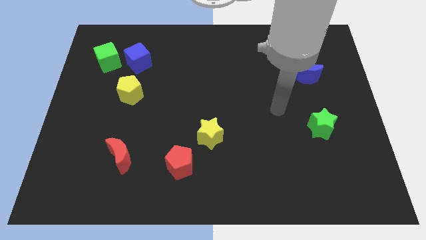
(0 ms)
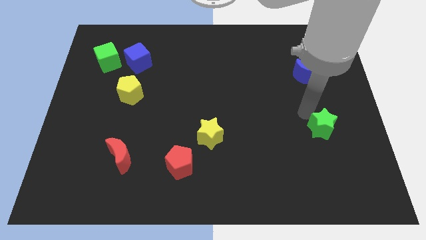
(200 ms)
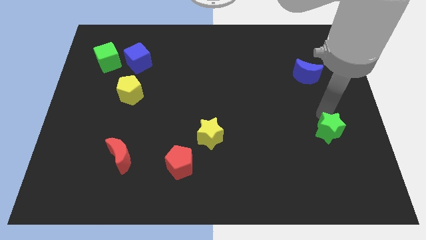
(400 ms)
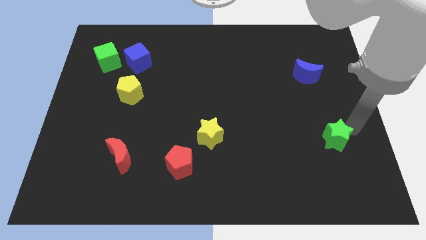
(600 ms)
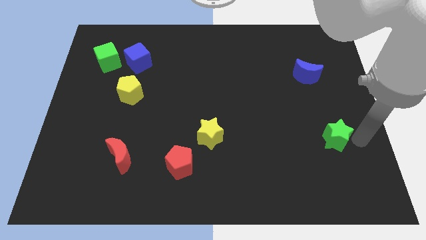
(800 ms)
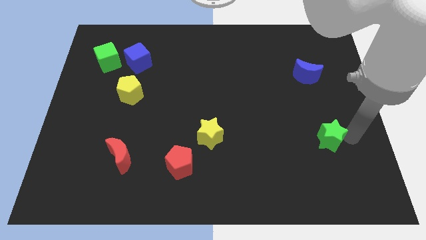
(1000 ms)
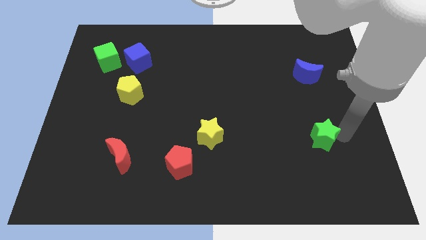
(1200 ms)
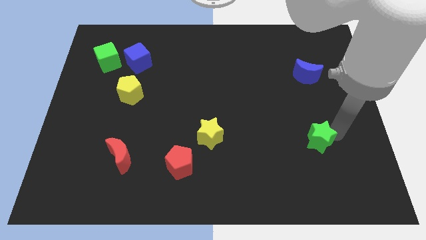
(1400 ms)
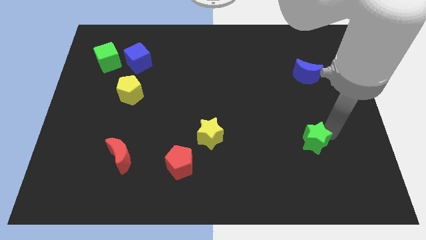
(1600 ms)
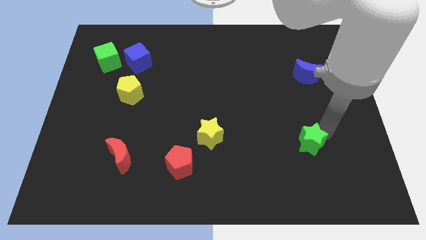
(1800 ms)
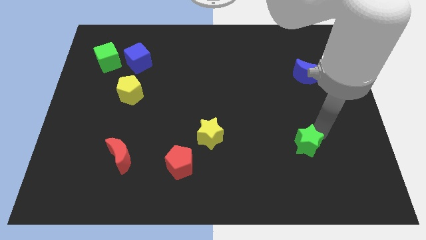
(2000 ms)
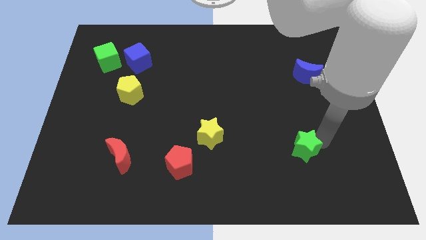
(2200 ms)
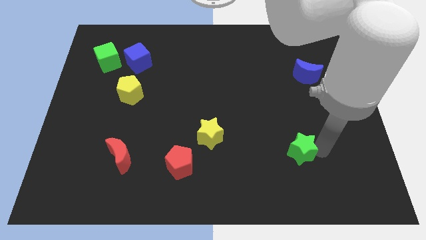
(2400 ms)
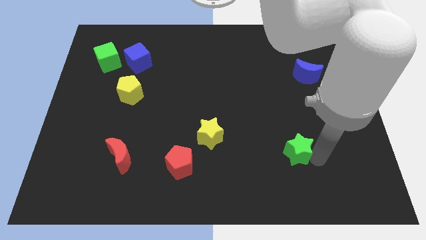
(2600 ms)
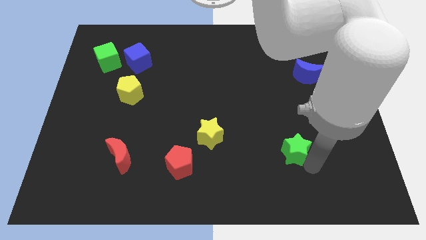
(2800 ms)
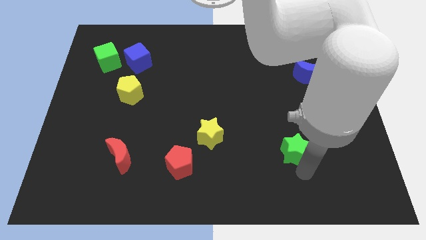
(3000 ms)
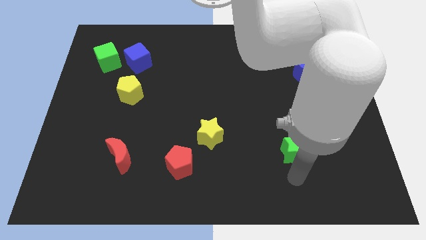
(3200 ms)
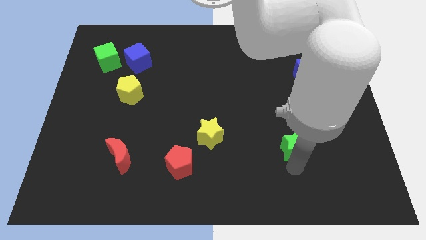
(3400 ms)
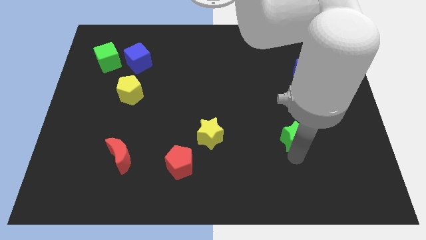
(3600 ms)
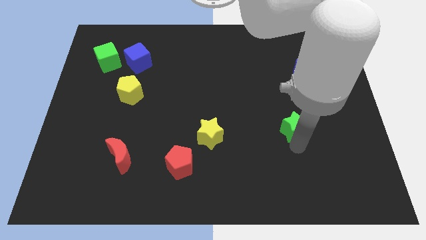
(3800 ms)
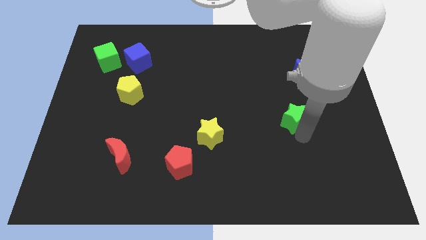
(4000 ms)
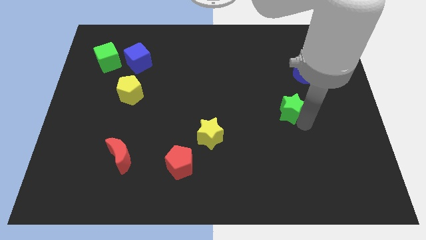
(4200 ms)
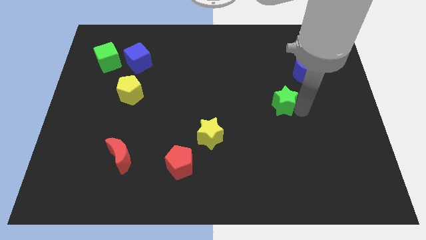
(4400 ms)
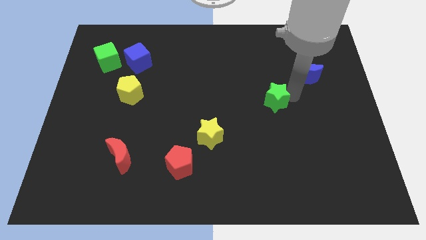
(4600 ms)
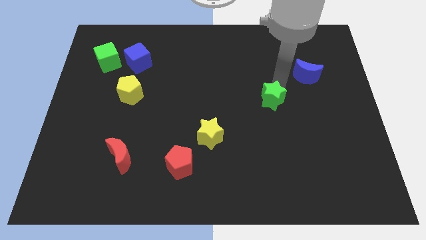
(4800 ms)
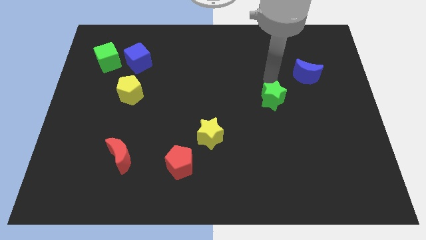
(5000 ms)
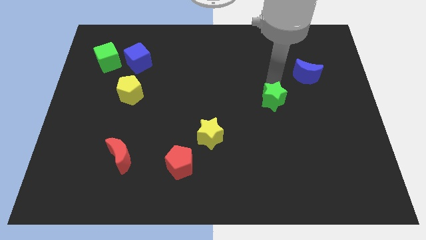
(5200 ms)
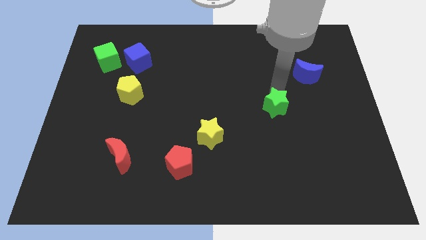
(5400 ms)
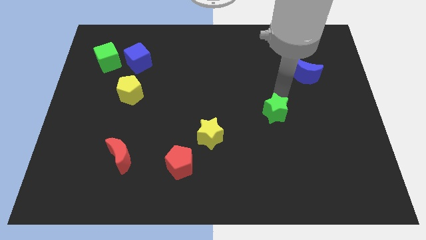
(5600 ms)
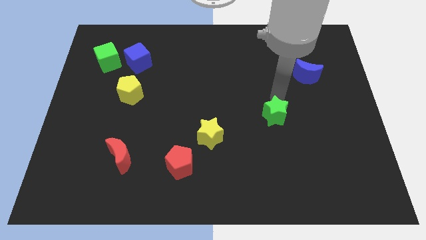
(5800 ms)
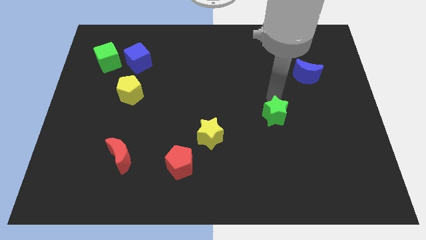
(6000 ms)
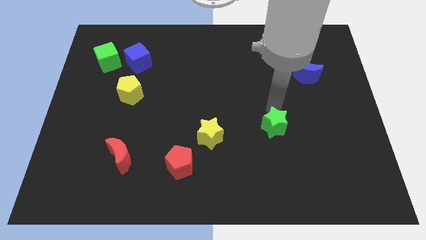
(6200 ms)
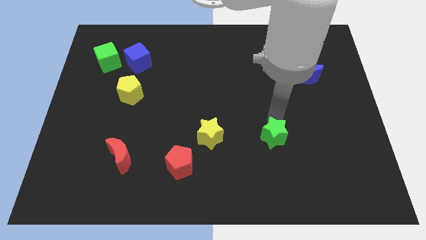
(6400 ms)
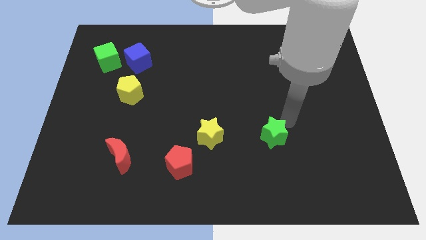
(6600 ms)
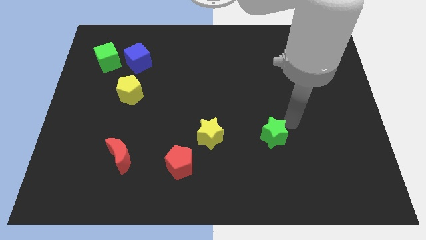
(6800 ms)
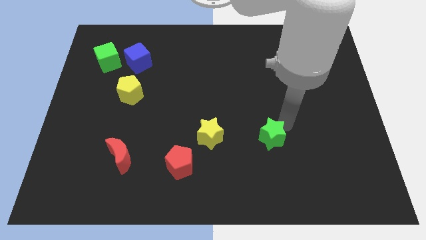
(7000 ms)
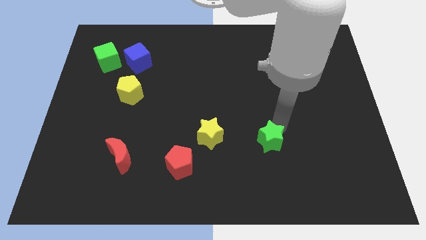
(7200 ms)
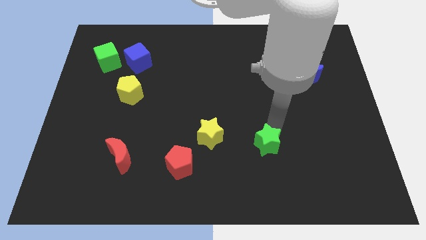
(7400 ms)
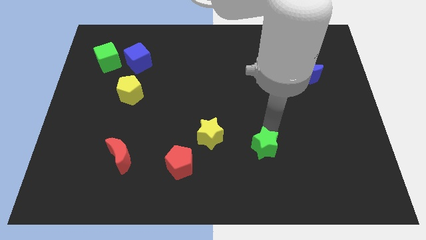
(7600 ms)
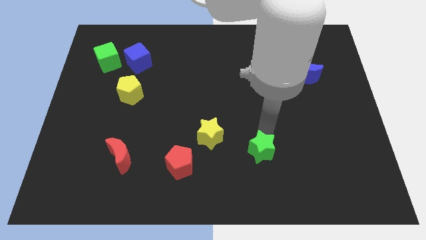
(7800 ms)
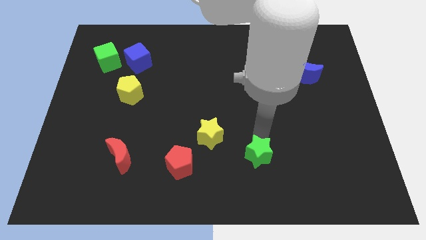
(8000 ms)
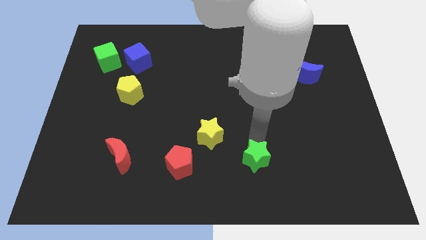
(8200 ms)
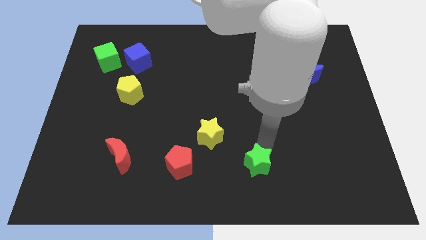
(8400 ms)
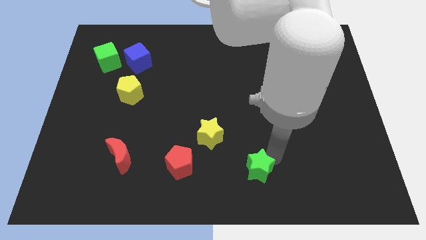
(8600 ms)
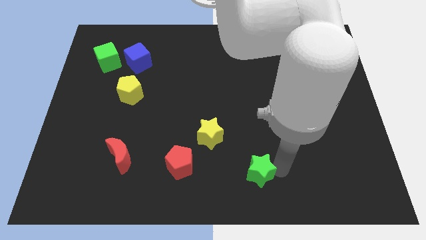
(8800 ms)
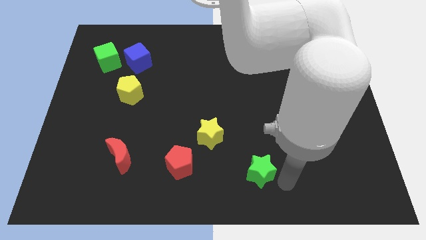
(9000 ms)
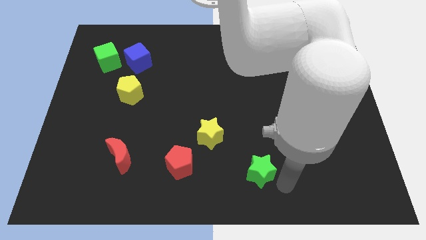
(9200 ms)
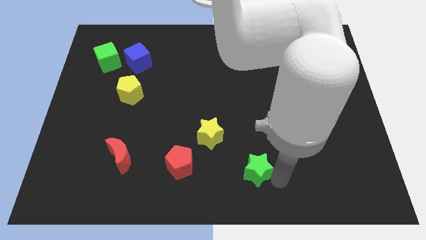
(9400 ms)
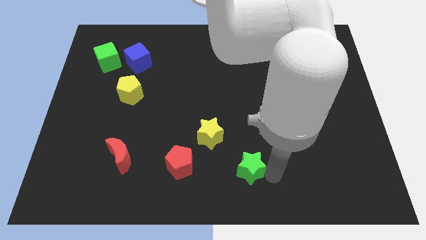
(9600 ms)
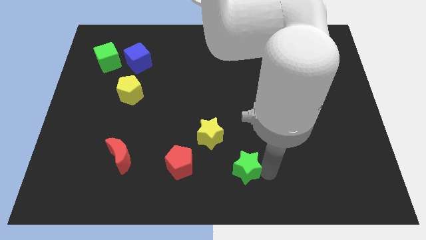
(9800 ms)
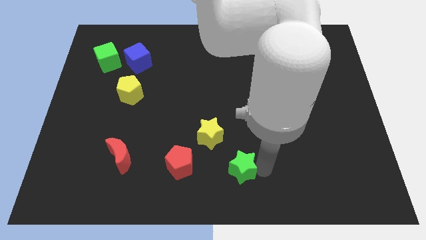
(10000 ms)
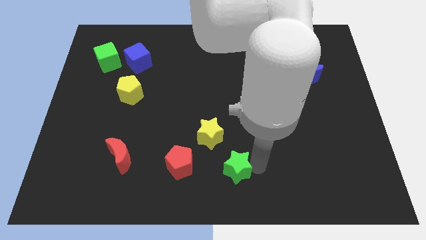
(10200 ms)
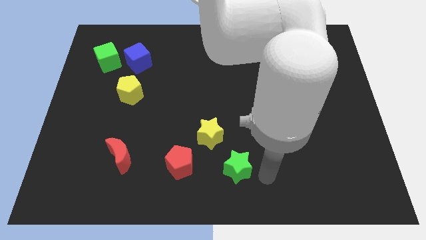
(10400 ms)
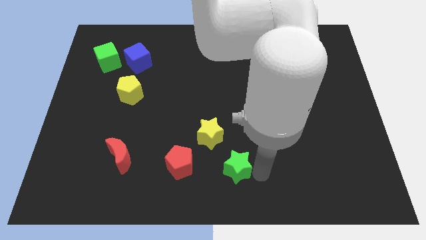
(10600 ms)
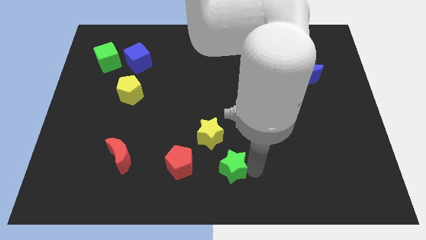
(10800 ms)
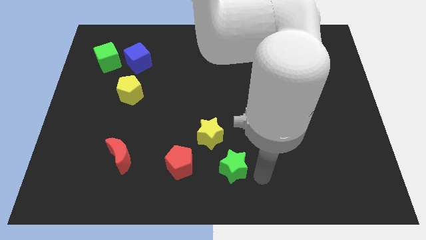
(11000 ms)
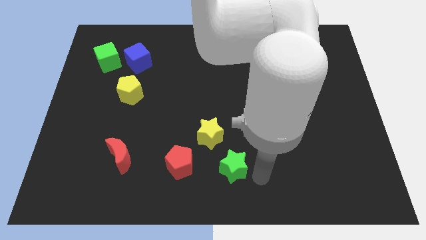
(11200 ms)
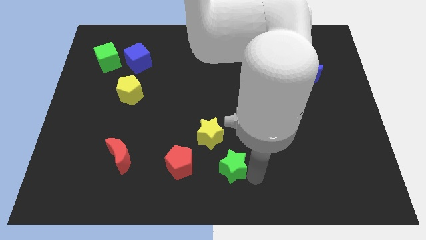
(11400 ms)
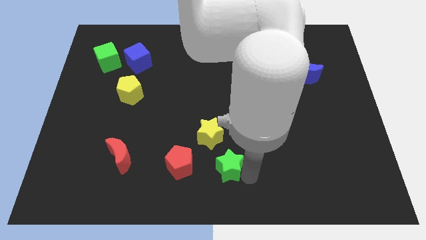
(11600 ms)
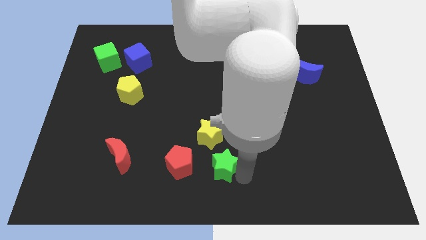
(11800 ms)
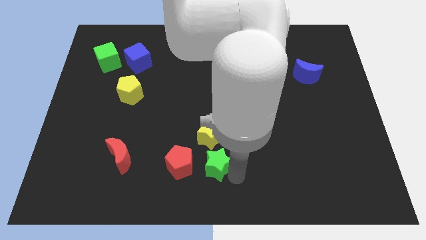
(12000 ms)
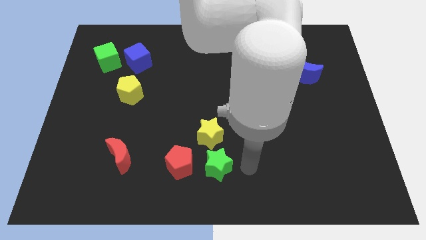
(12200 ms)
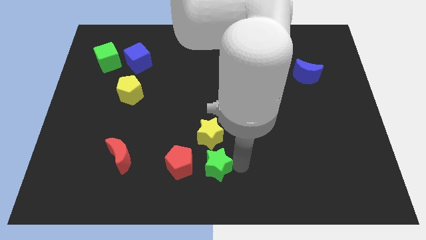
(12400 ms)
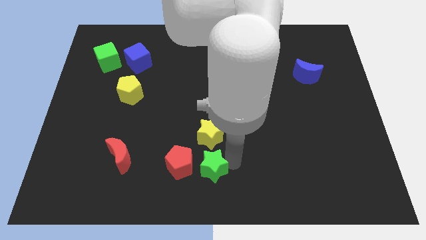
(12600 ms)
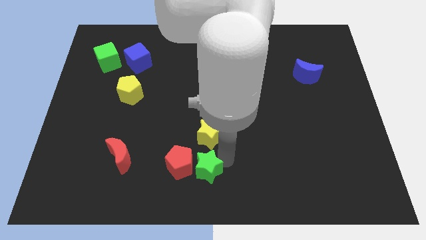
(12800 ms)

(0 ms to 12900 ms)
slide the green star towards the red pentagon
